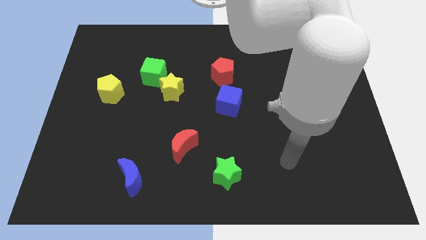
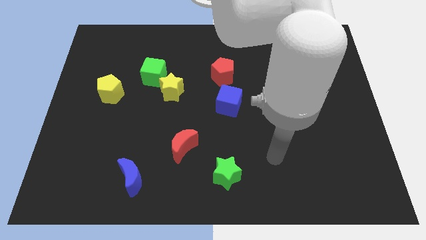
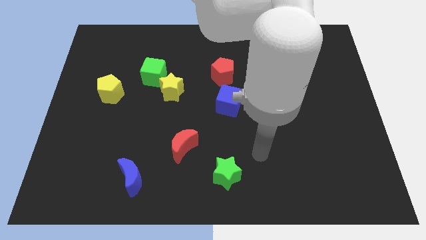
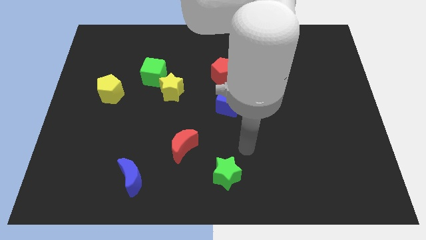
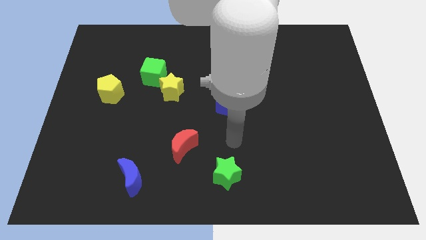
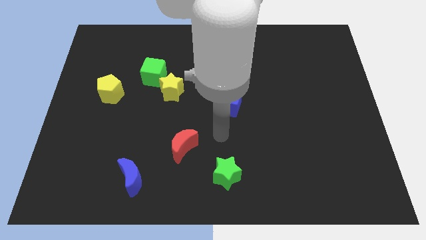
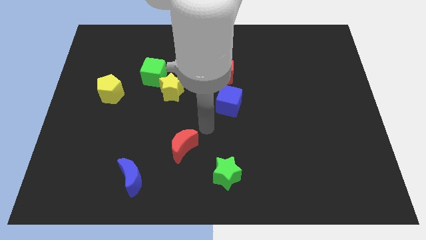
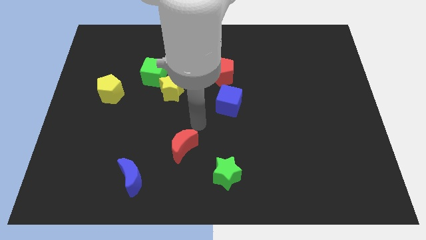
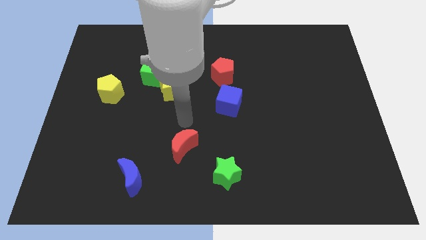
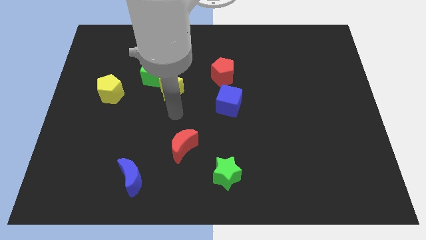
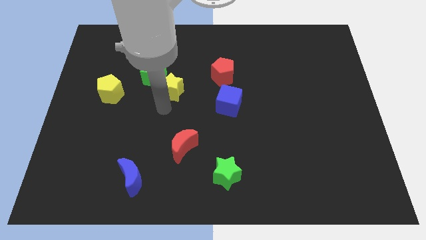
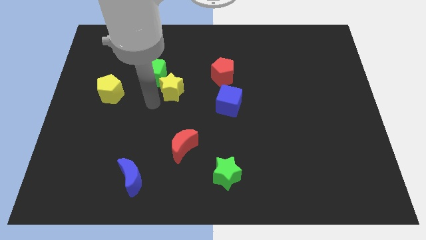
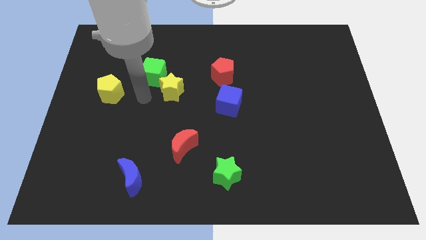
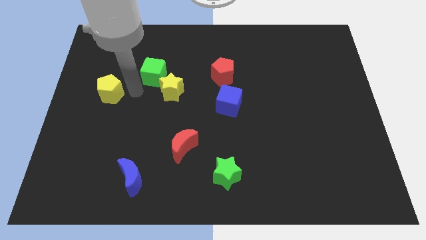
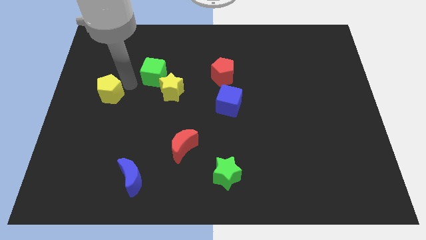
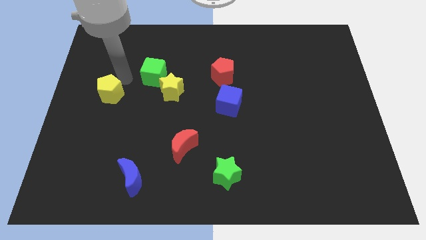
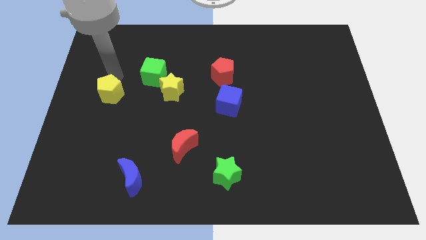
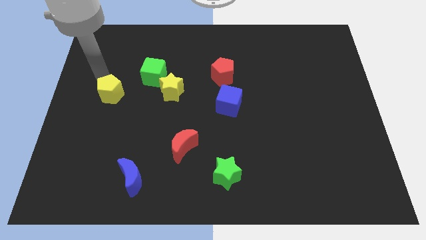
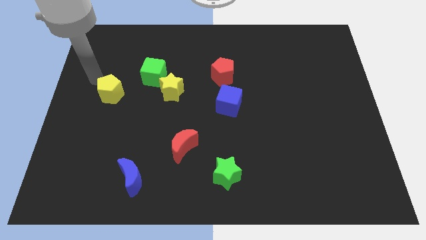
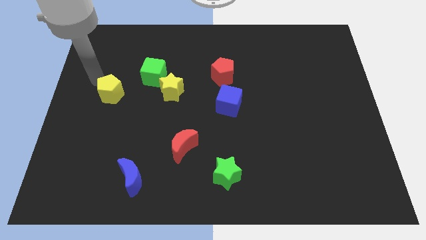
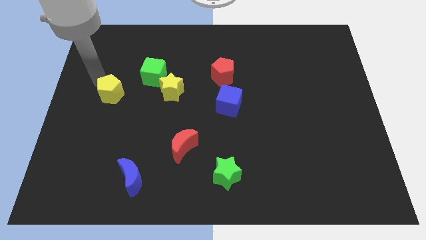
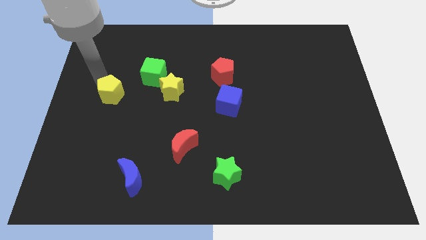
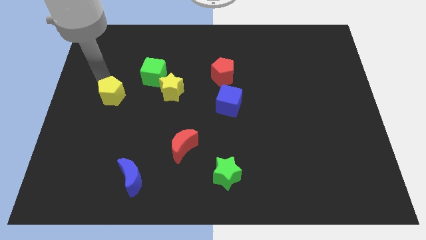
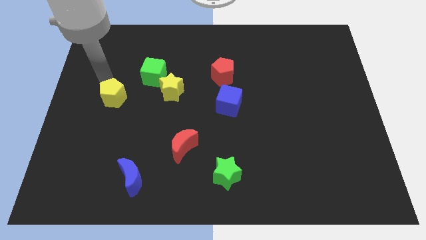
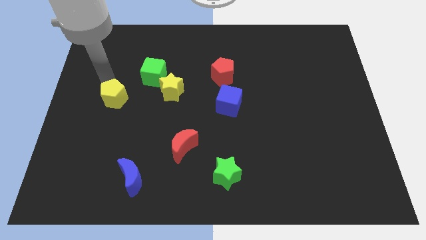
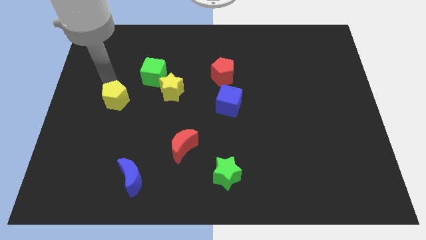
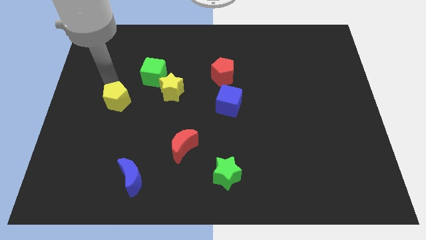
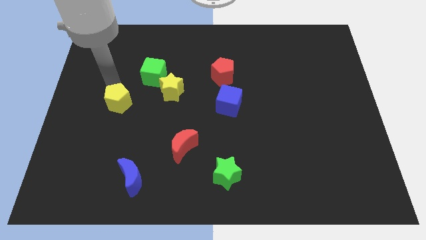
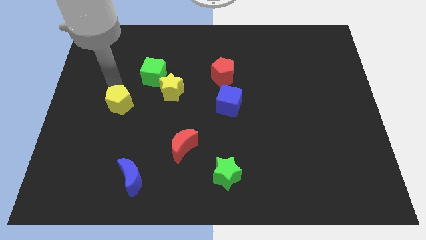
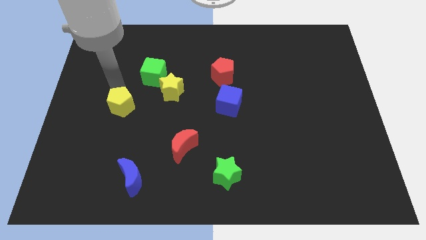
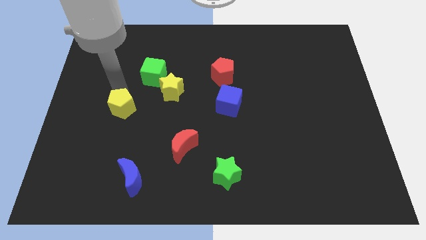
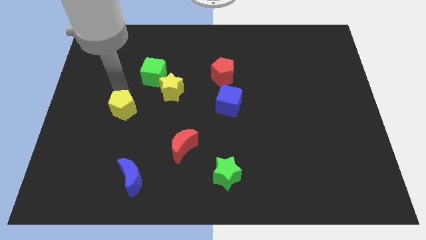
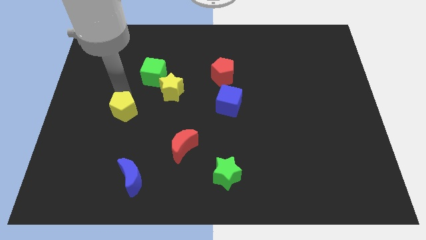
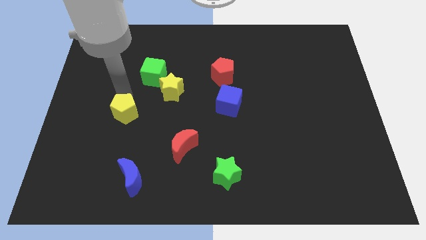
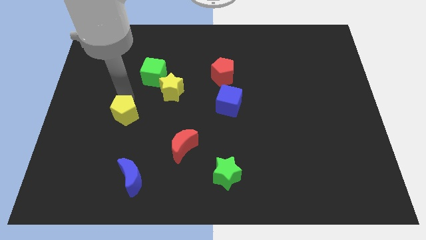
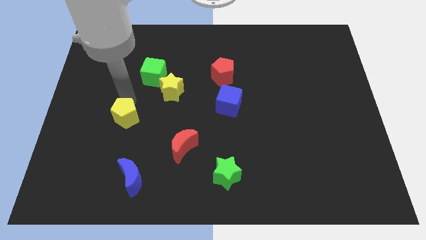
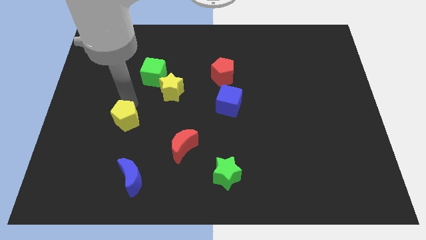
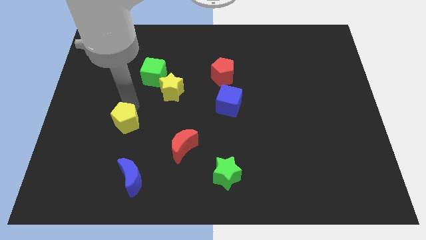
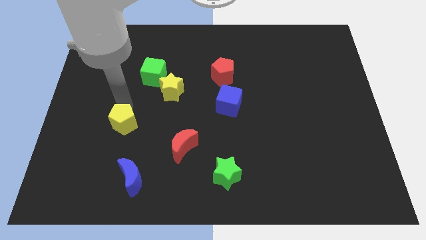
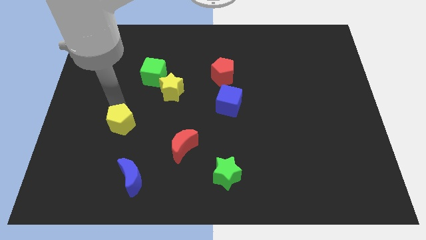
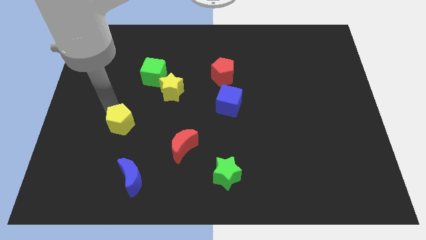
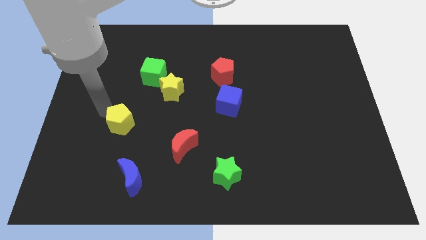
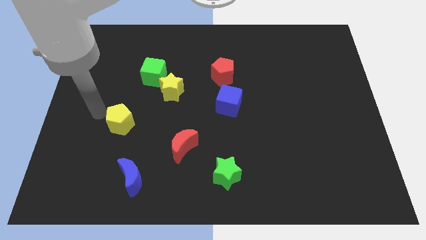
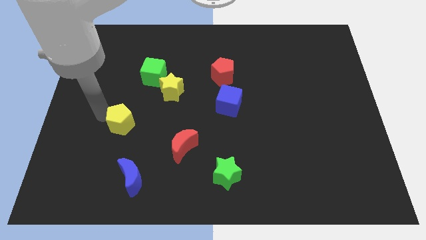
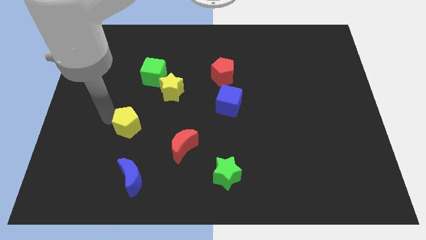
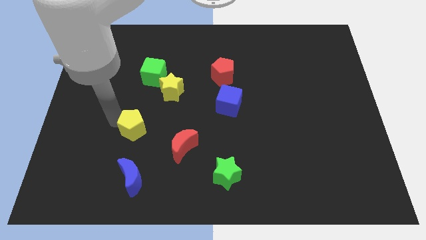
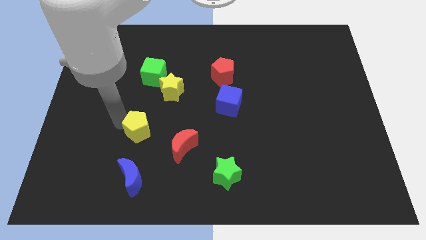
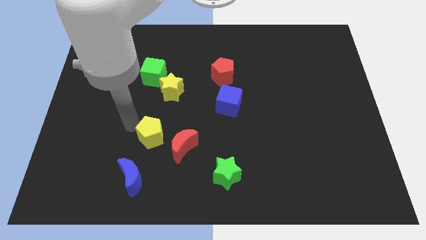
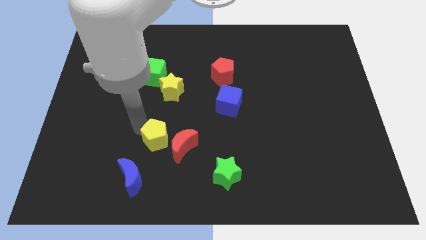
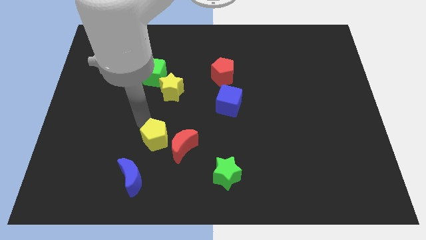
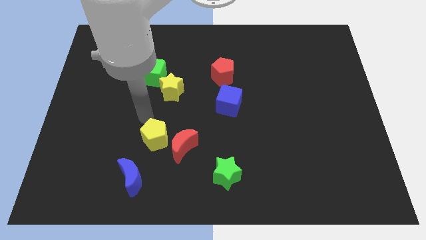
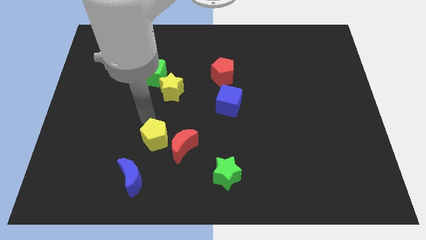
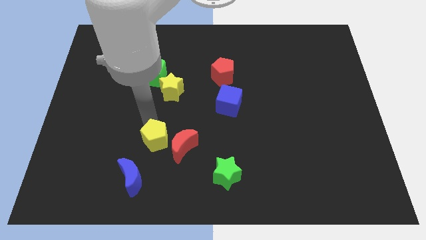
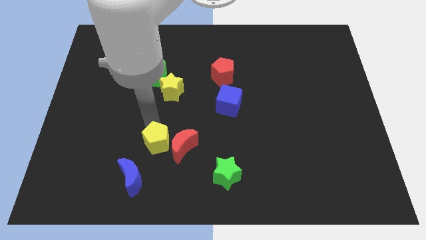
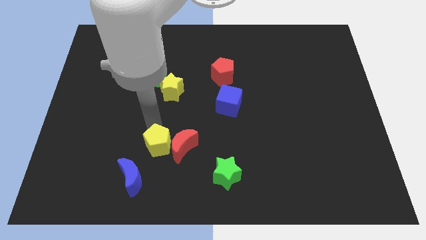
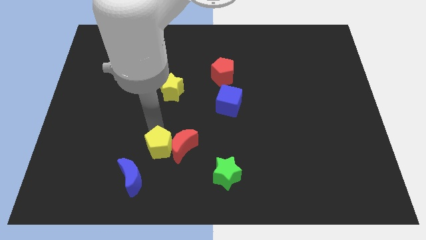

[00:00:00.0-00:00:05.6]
slide the yellow pentagon down and right diagonally

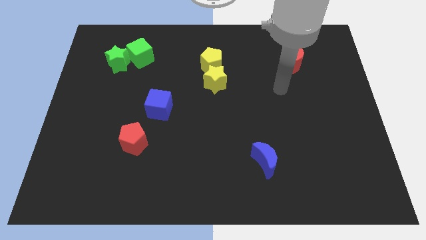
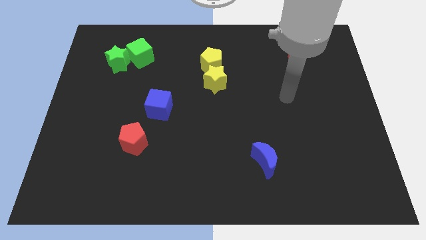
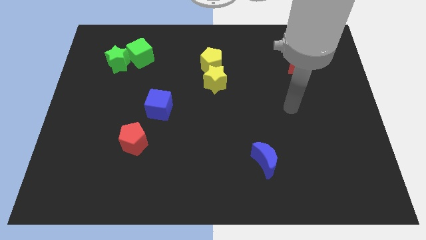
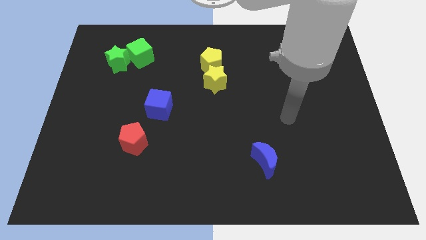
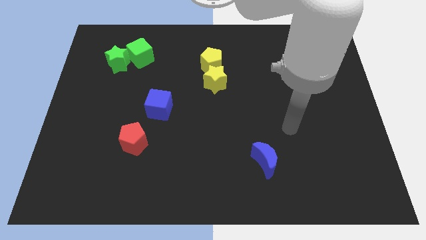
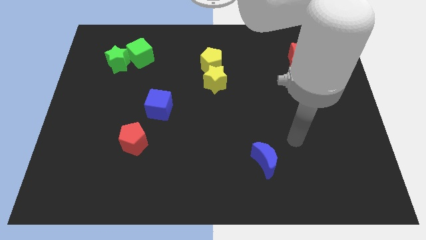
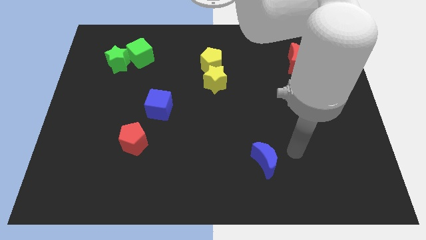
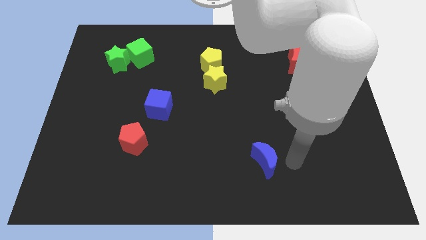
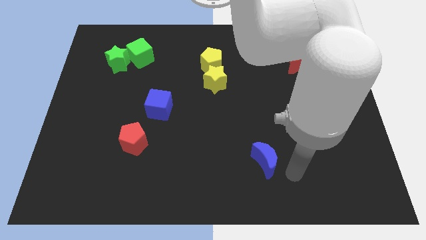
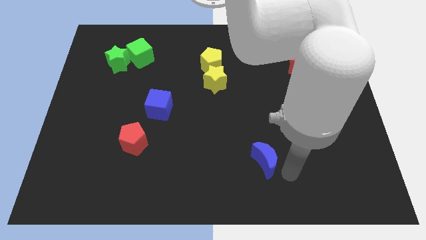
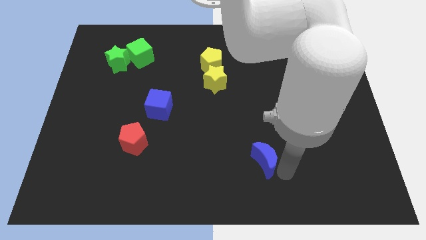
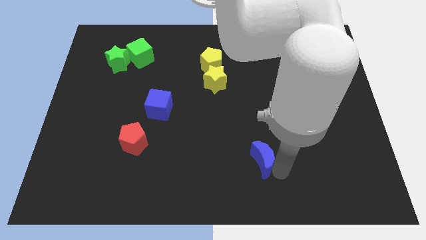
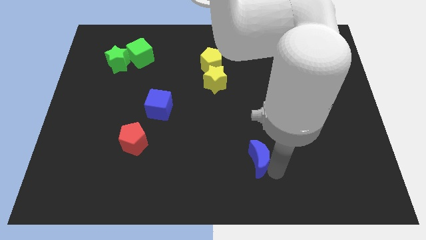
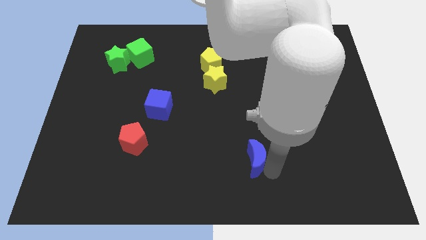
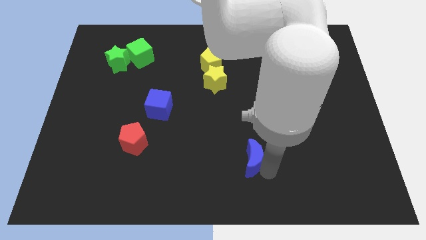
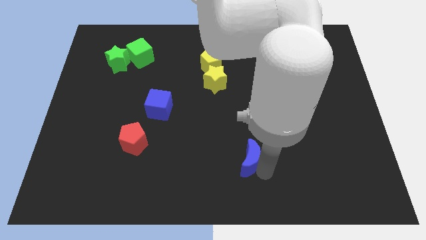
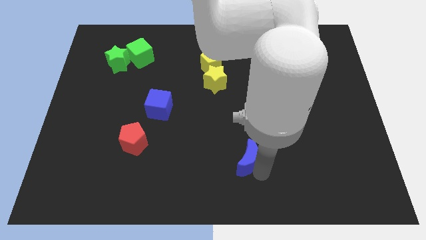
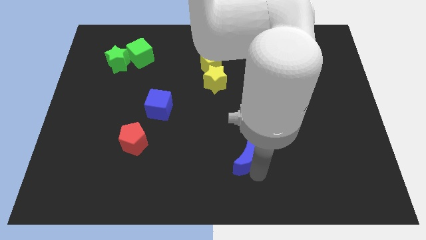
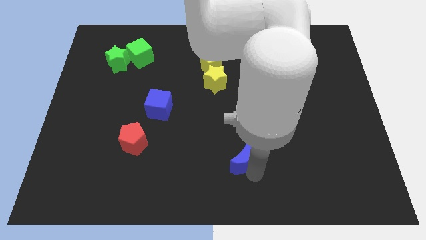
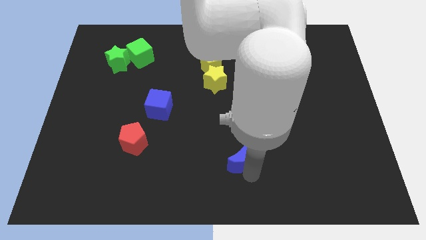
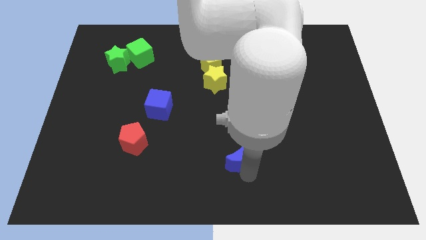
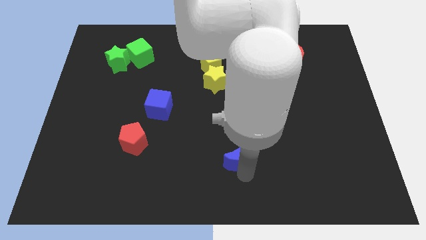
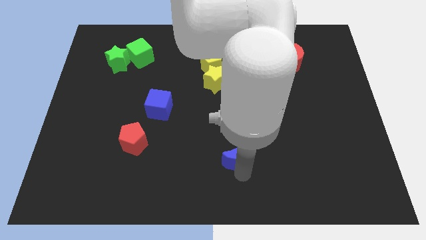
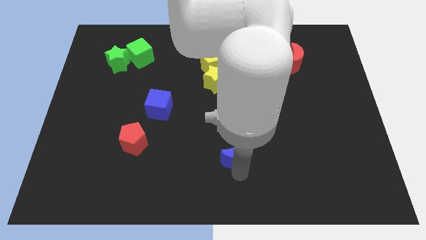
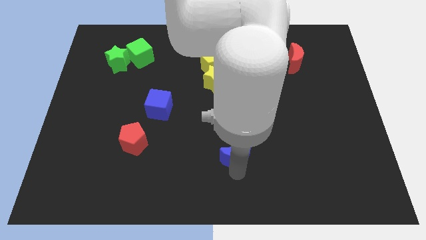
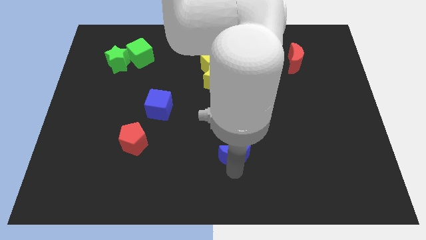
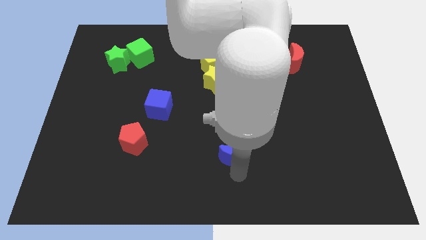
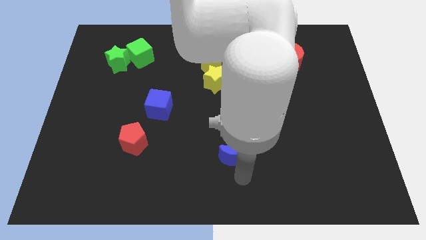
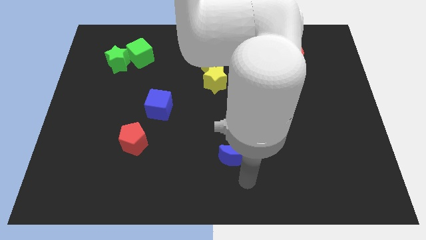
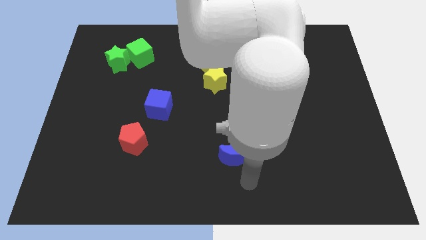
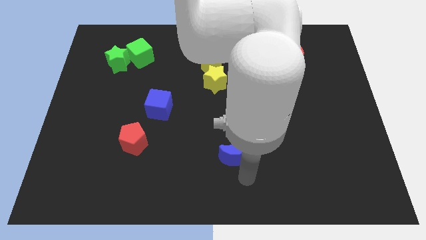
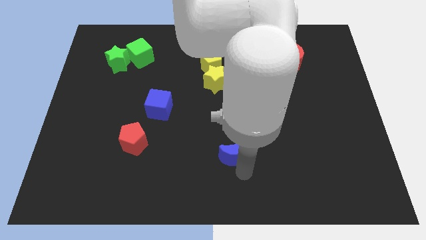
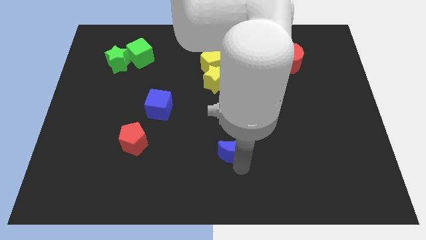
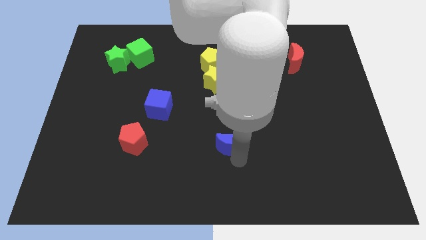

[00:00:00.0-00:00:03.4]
slightly move the blue moon diagonally upwards and to the left
